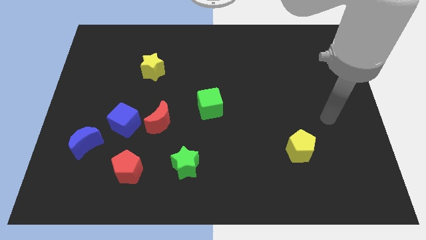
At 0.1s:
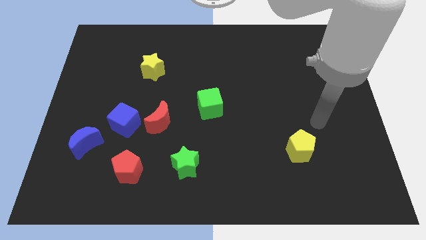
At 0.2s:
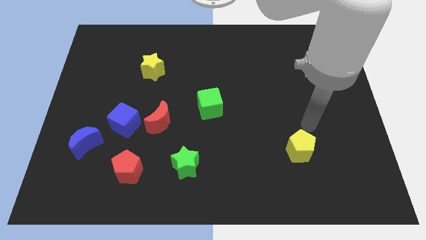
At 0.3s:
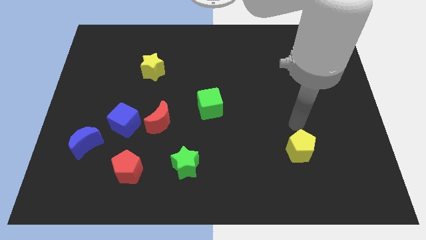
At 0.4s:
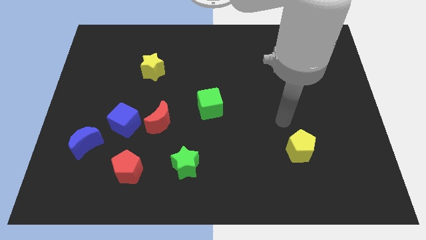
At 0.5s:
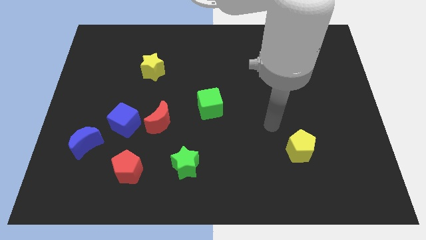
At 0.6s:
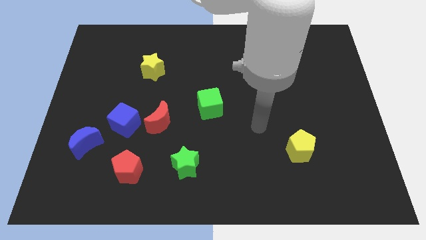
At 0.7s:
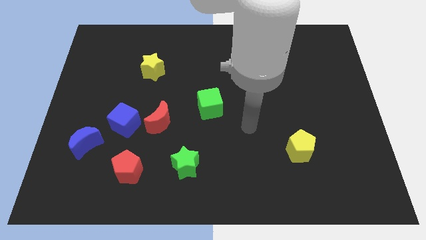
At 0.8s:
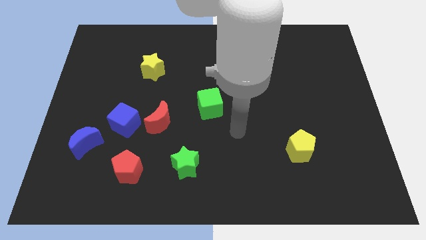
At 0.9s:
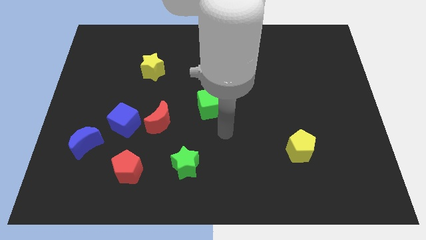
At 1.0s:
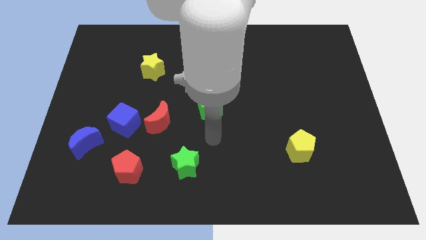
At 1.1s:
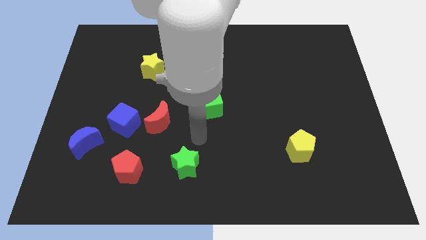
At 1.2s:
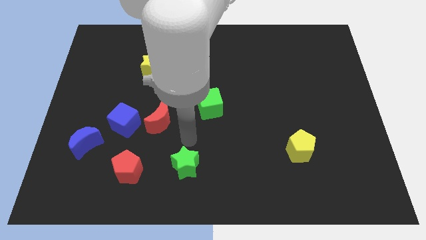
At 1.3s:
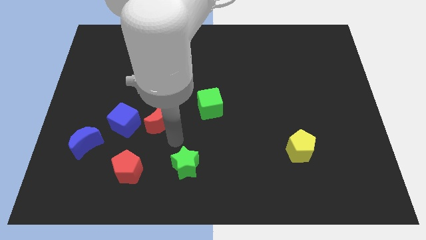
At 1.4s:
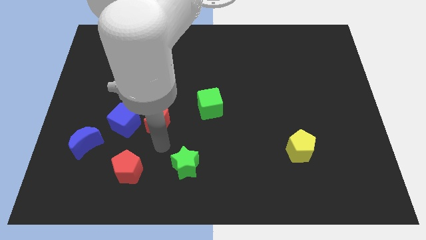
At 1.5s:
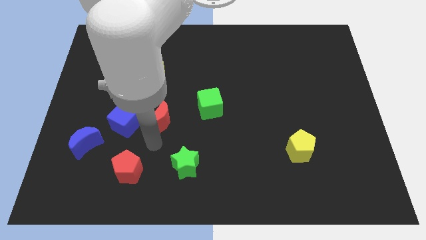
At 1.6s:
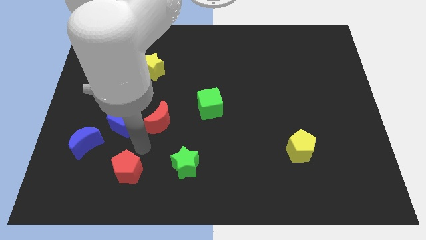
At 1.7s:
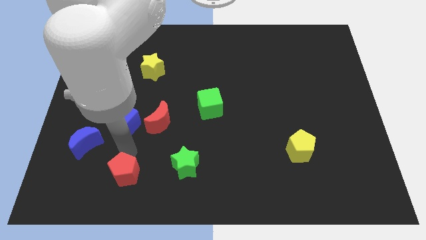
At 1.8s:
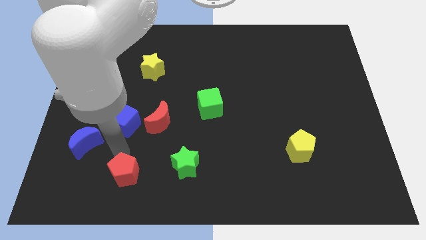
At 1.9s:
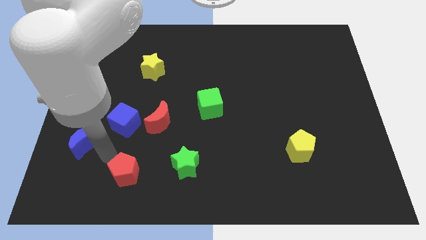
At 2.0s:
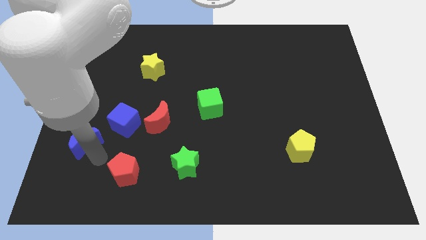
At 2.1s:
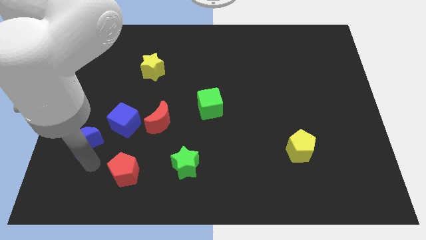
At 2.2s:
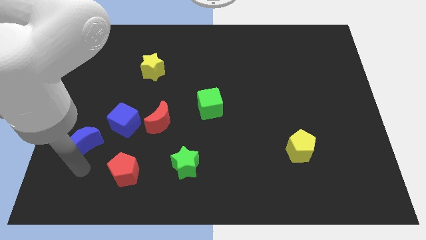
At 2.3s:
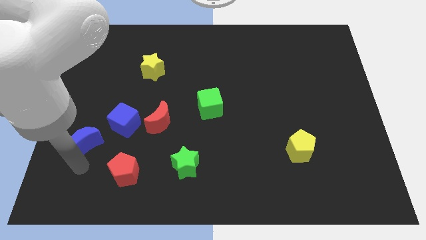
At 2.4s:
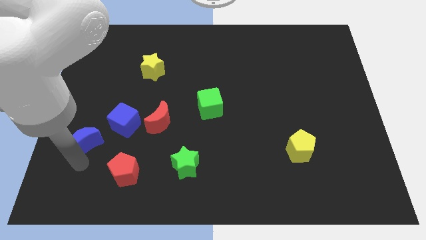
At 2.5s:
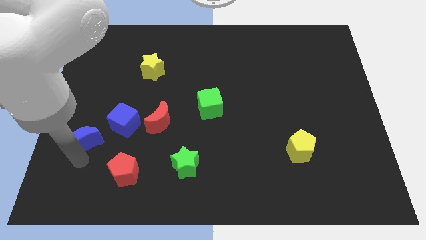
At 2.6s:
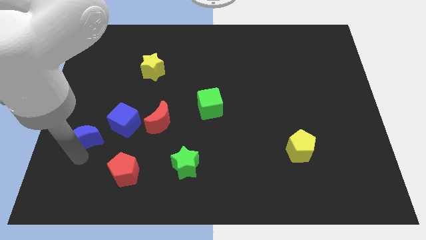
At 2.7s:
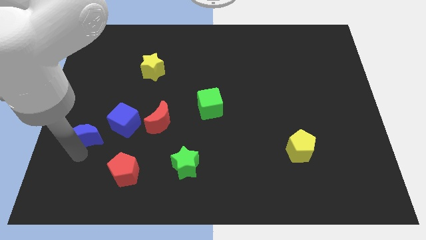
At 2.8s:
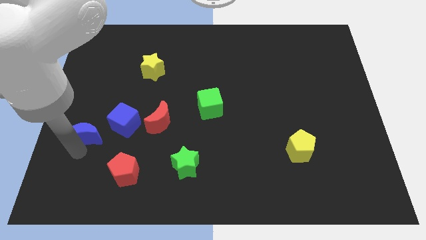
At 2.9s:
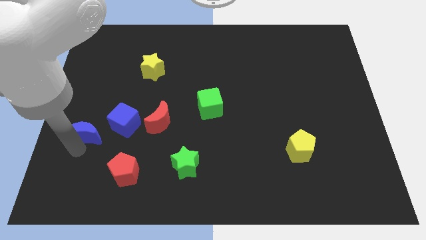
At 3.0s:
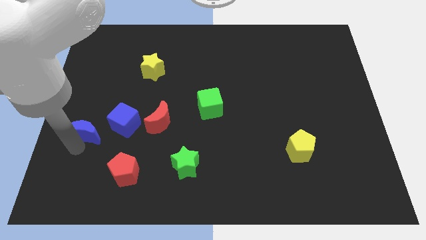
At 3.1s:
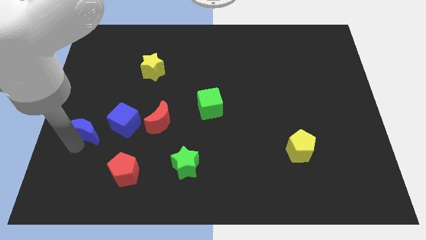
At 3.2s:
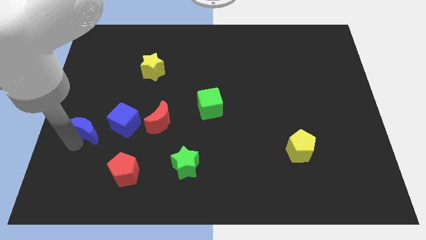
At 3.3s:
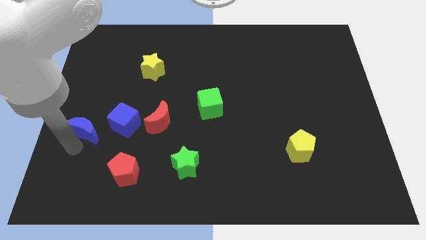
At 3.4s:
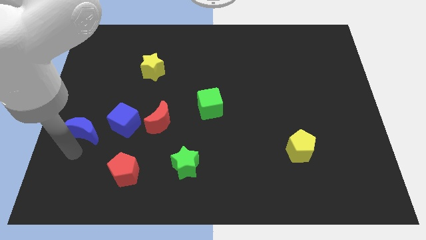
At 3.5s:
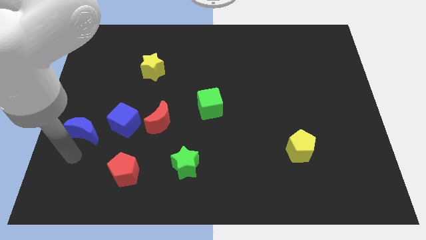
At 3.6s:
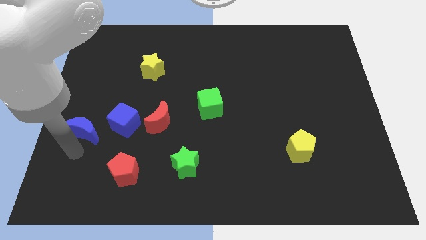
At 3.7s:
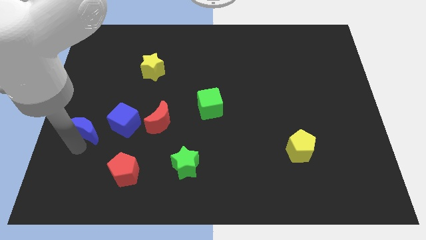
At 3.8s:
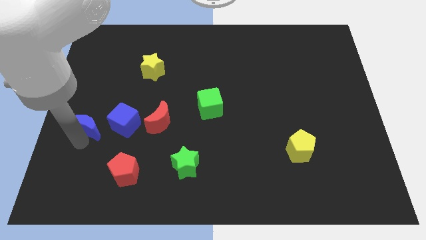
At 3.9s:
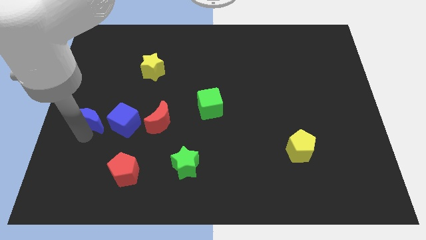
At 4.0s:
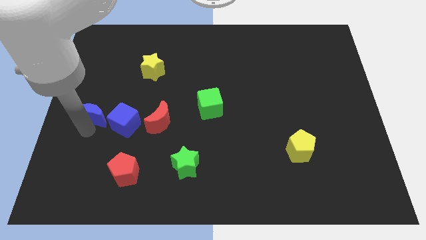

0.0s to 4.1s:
push the blue moon a little bit upwards

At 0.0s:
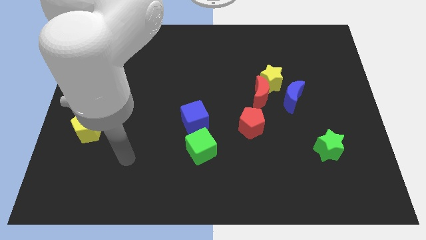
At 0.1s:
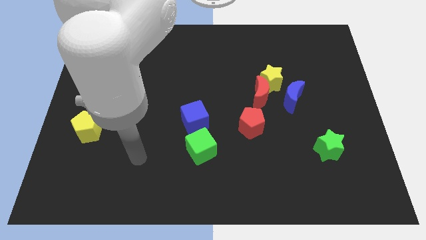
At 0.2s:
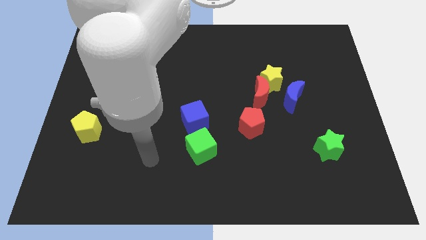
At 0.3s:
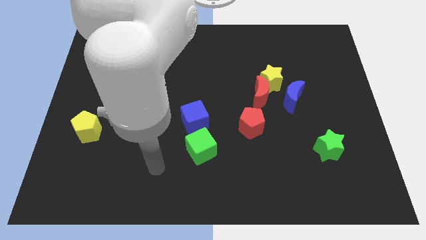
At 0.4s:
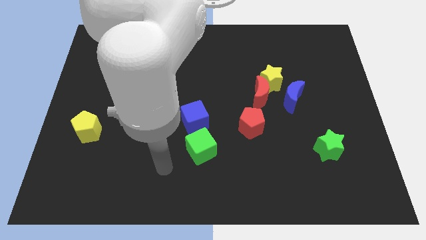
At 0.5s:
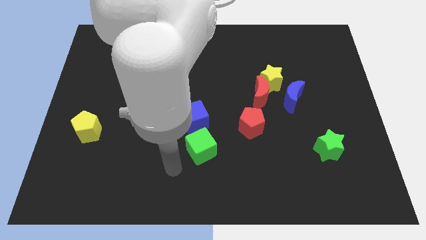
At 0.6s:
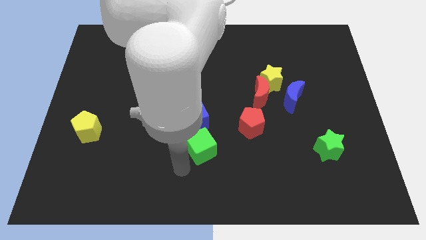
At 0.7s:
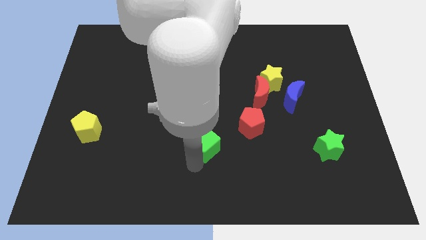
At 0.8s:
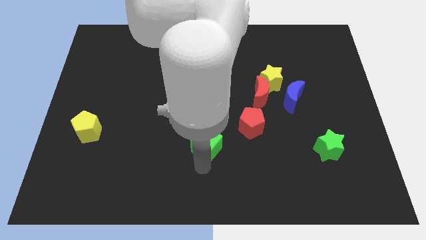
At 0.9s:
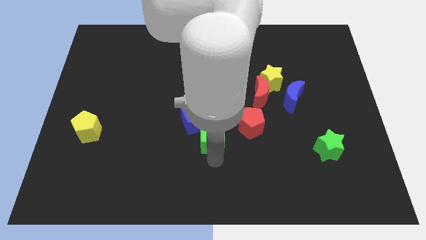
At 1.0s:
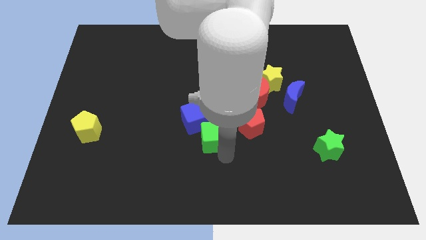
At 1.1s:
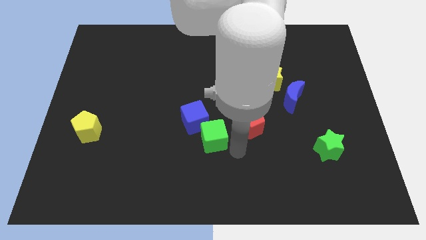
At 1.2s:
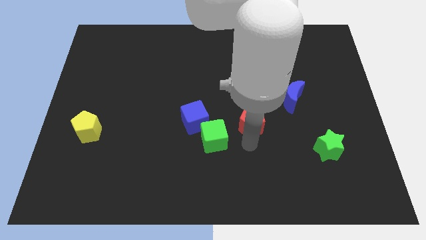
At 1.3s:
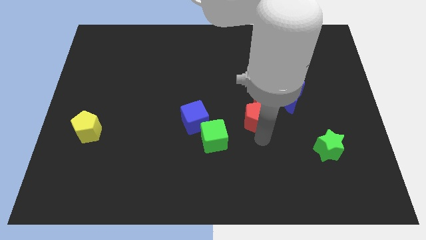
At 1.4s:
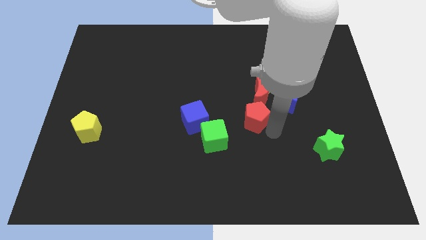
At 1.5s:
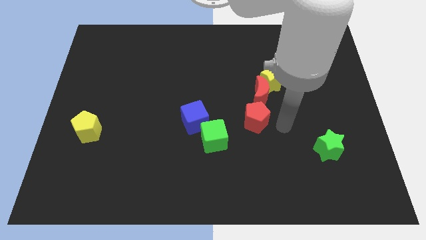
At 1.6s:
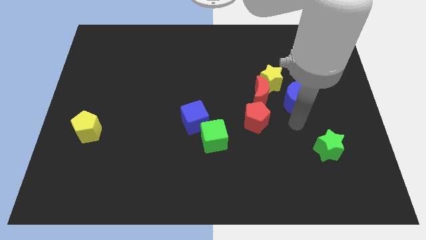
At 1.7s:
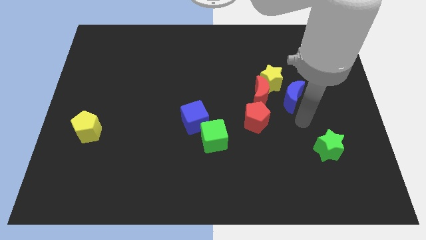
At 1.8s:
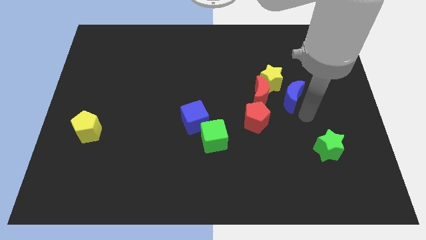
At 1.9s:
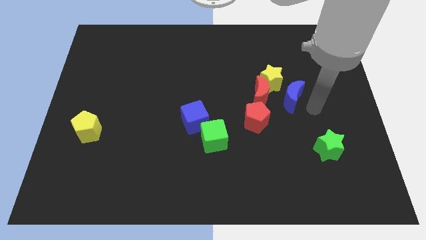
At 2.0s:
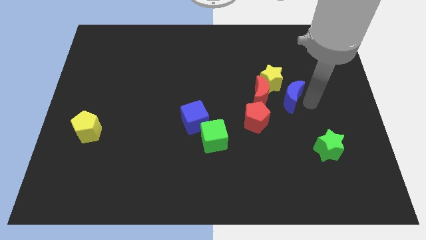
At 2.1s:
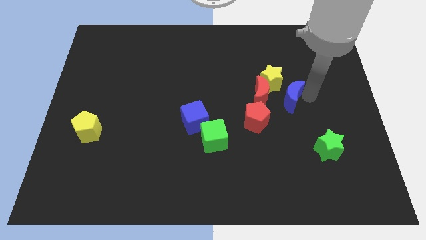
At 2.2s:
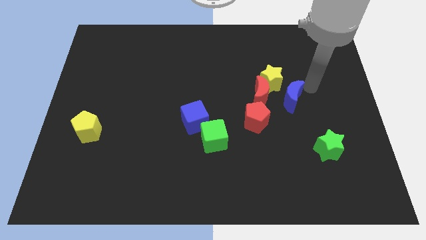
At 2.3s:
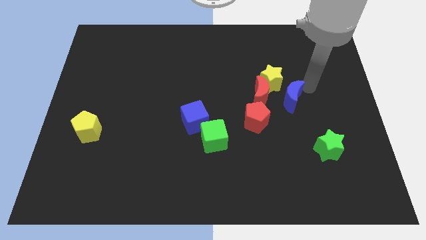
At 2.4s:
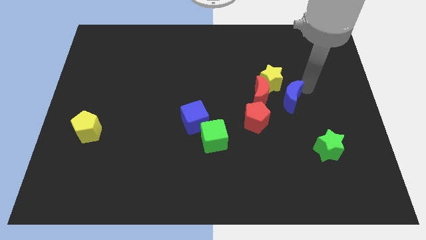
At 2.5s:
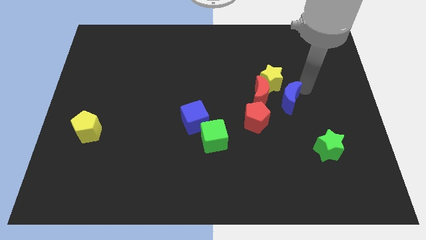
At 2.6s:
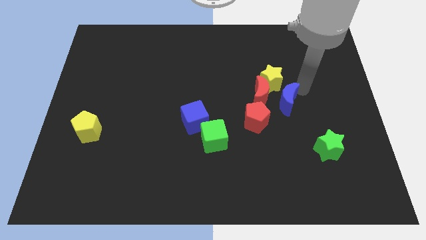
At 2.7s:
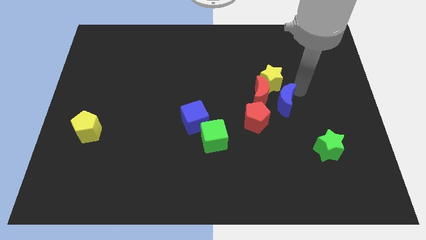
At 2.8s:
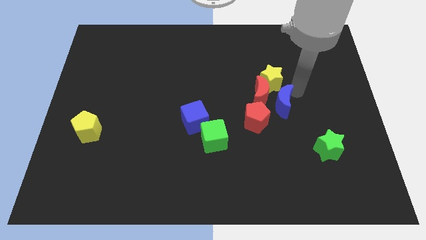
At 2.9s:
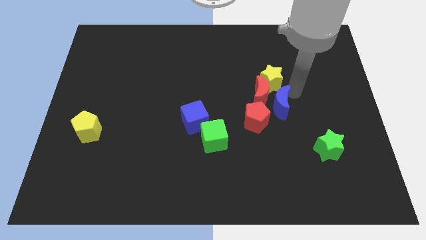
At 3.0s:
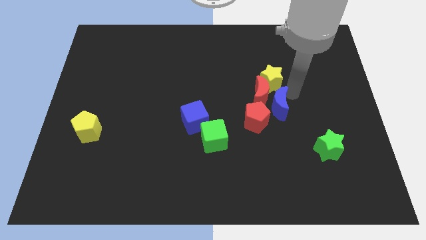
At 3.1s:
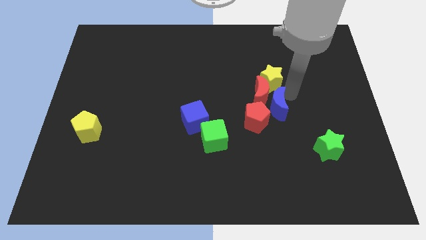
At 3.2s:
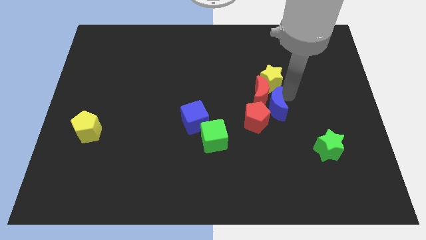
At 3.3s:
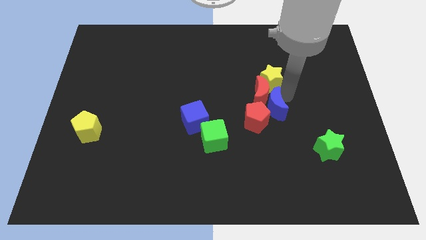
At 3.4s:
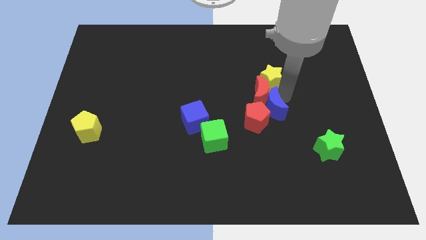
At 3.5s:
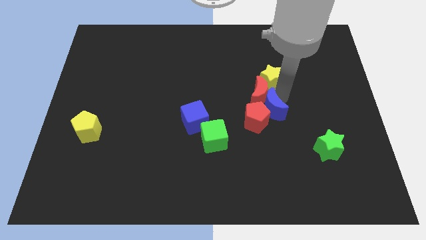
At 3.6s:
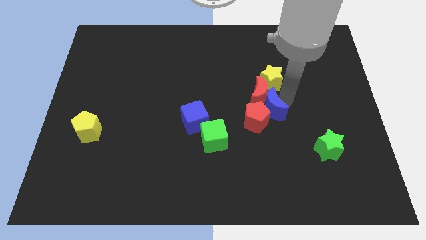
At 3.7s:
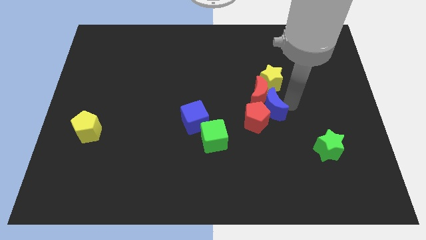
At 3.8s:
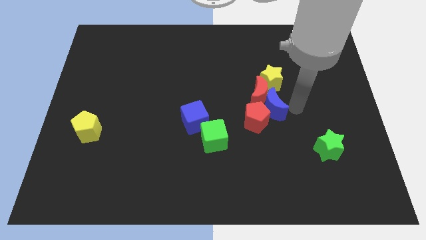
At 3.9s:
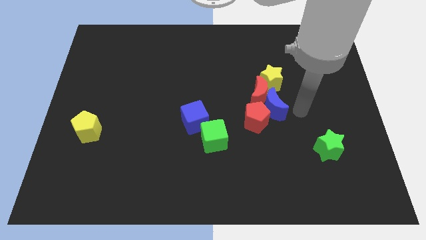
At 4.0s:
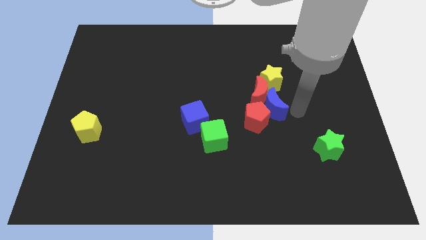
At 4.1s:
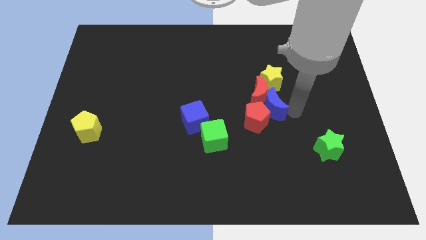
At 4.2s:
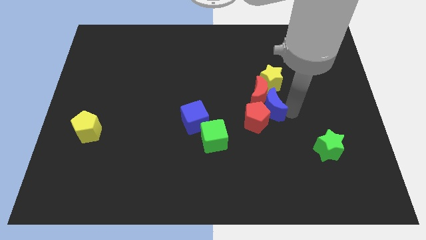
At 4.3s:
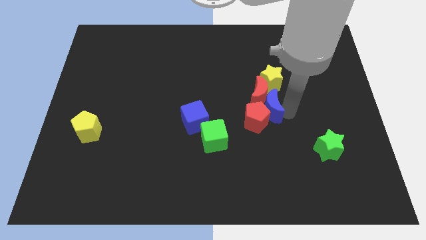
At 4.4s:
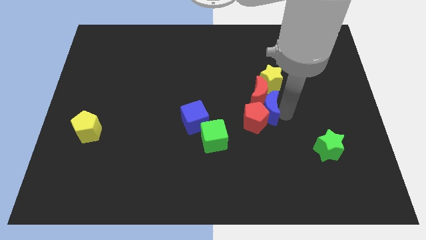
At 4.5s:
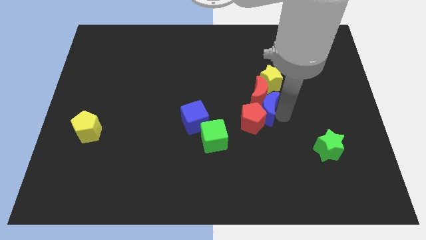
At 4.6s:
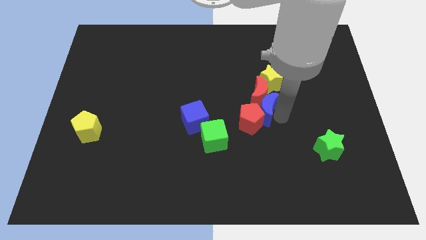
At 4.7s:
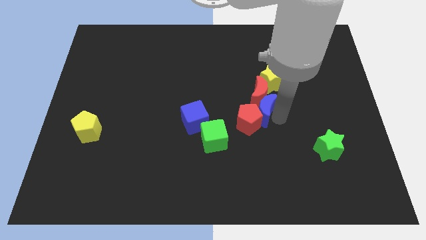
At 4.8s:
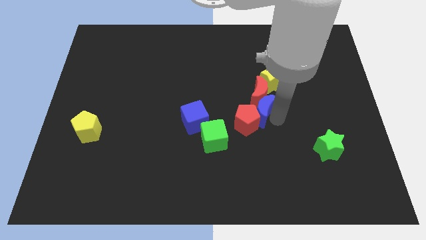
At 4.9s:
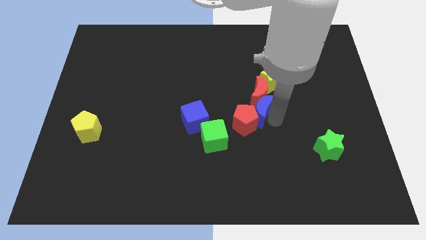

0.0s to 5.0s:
move the blue moon left somewhat
